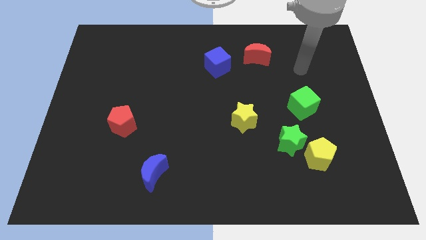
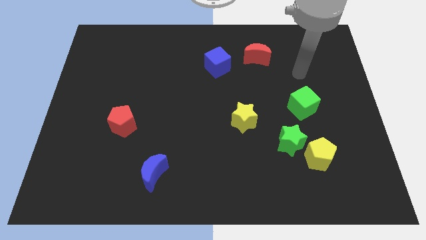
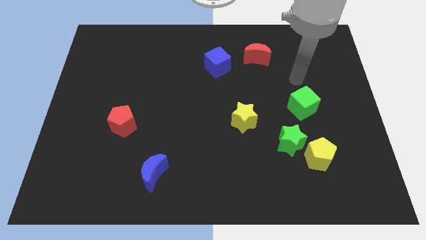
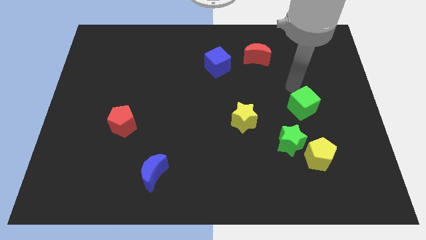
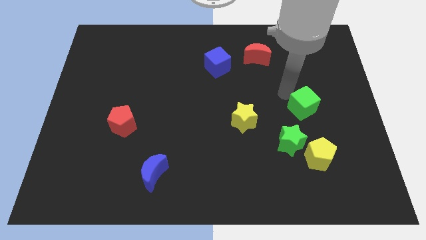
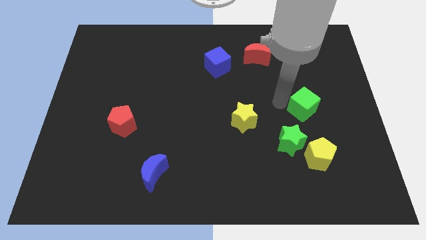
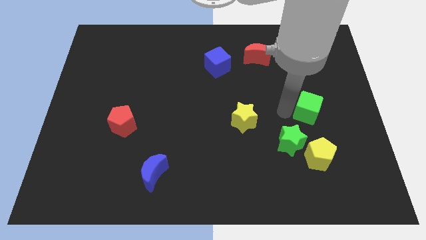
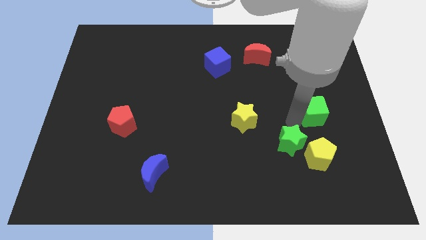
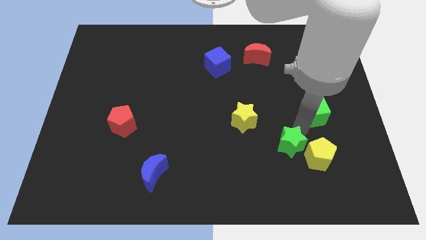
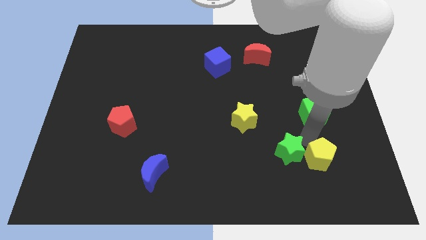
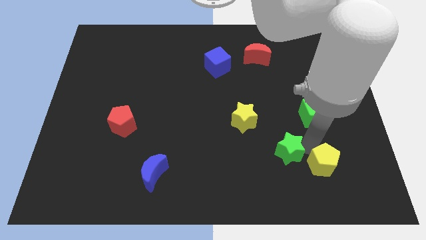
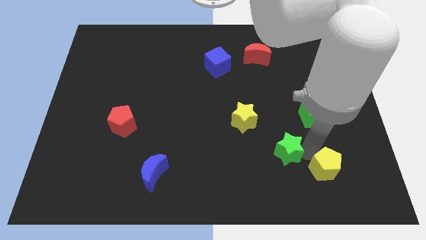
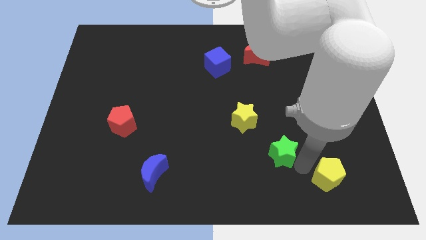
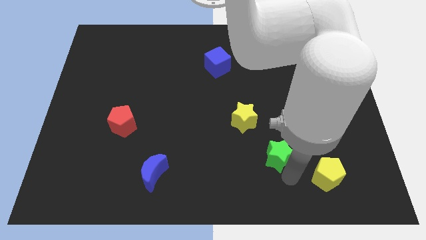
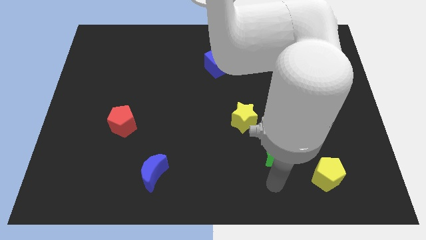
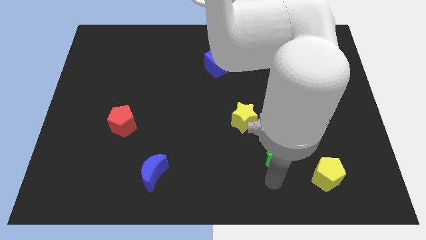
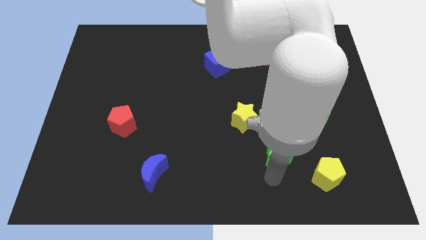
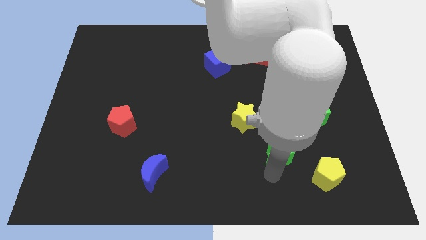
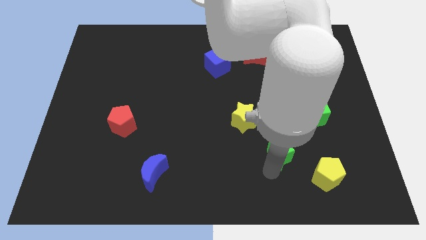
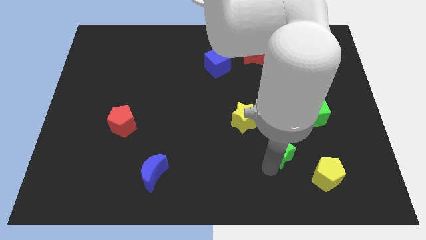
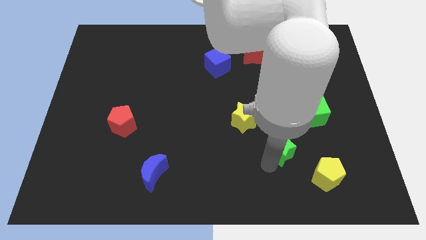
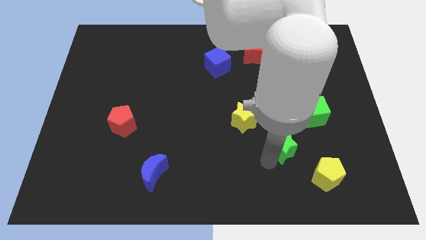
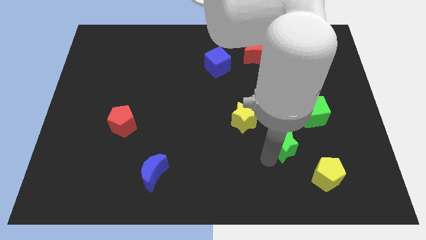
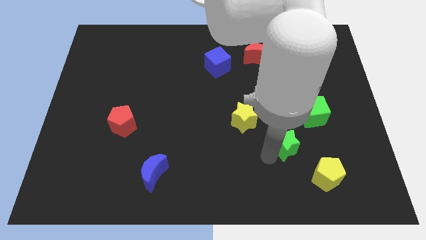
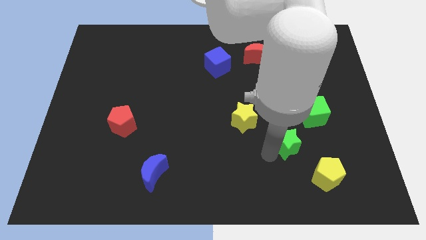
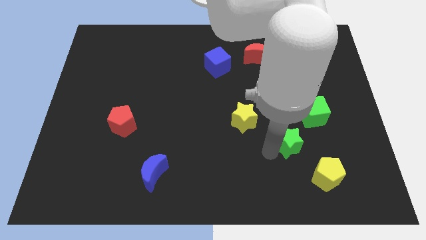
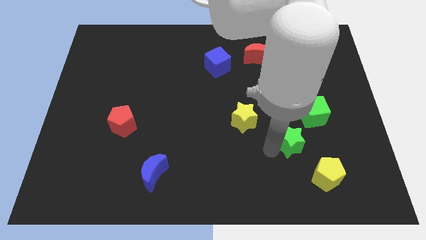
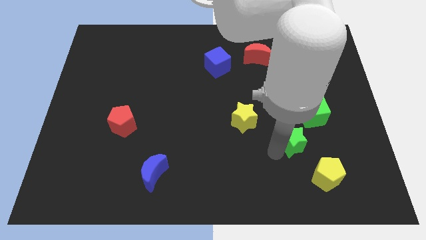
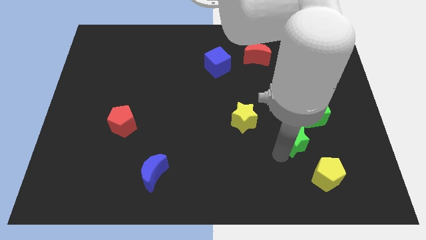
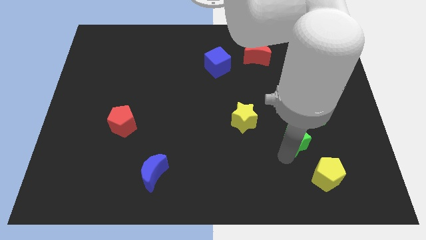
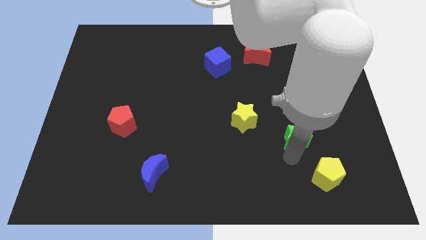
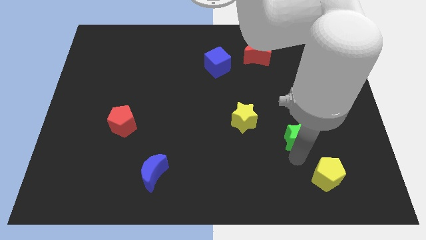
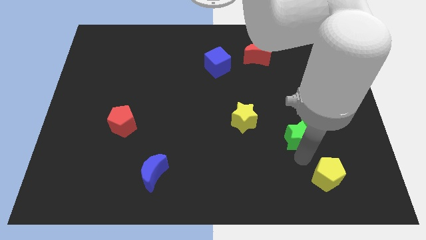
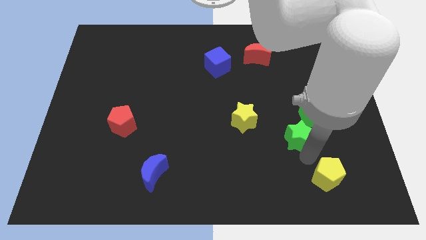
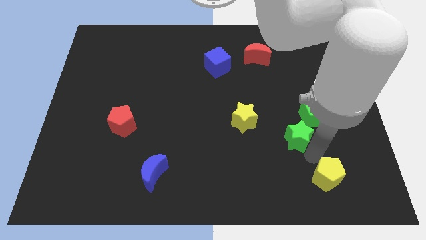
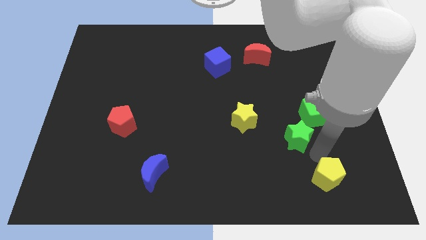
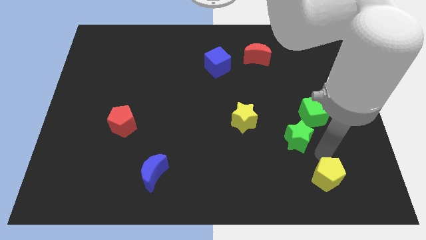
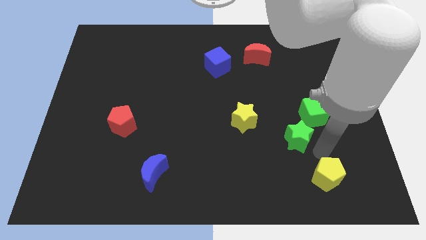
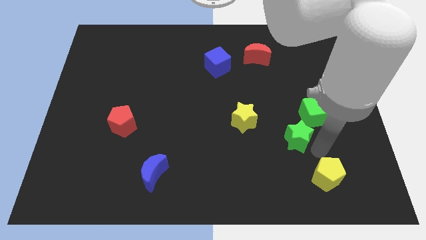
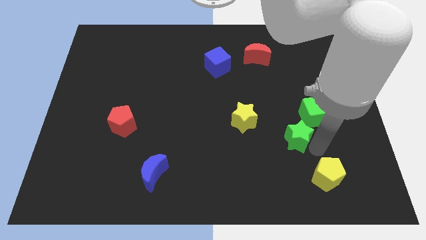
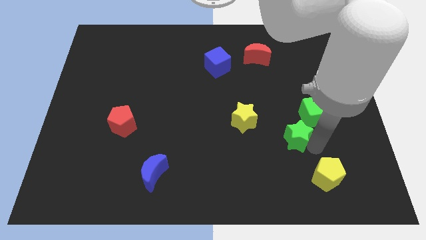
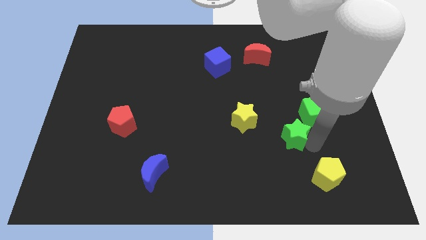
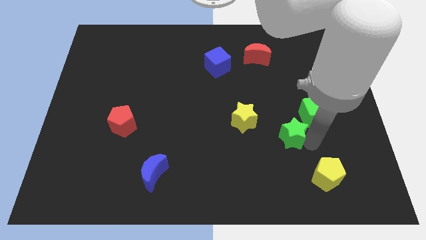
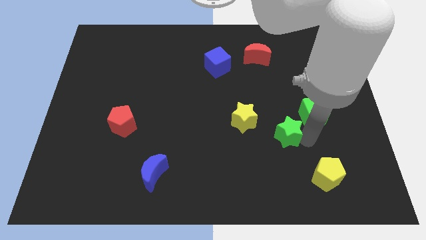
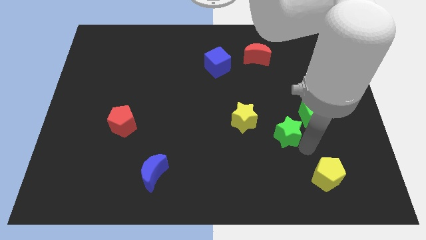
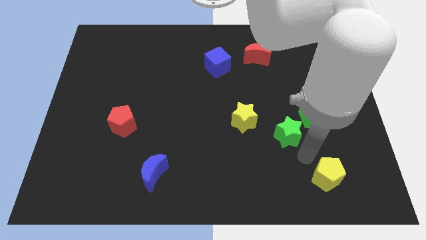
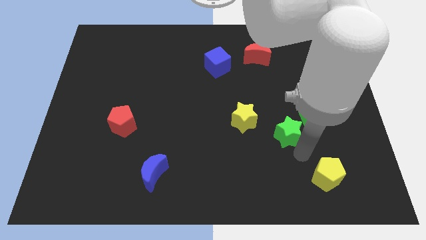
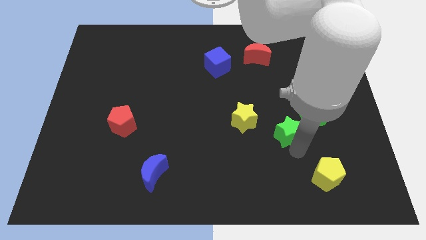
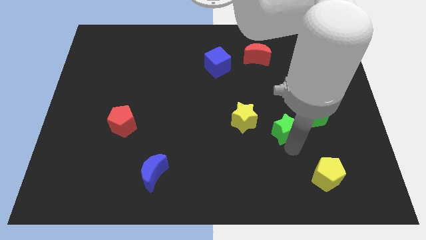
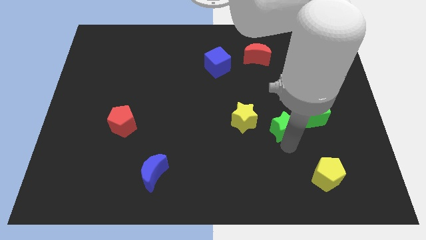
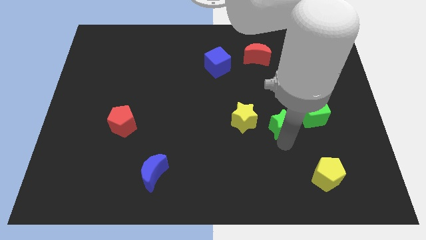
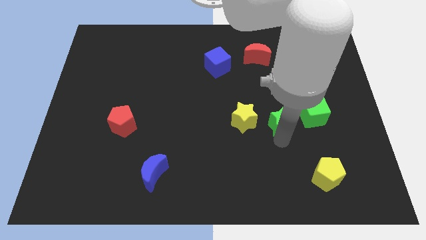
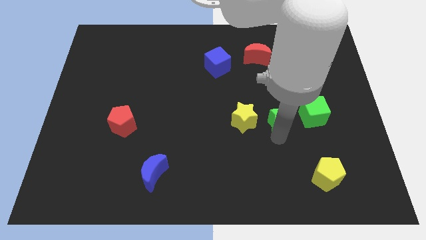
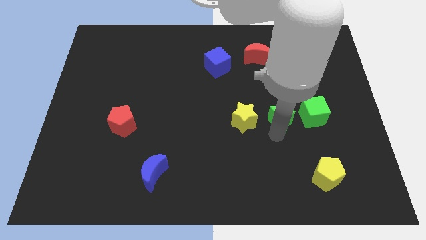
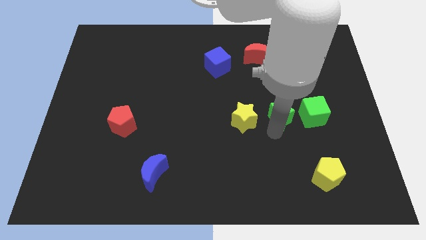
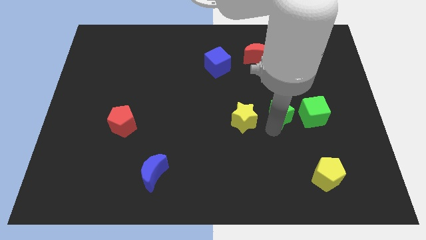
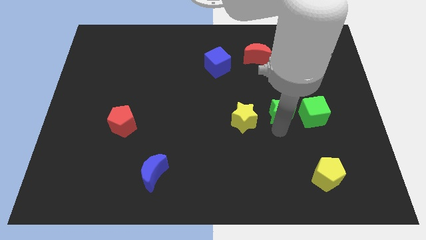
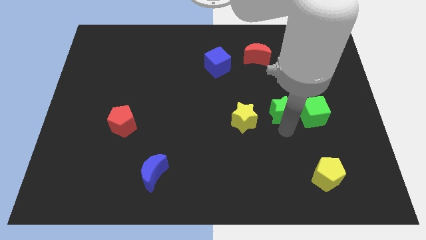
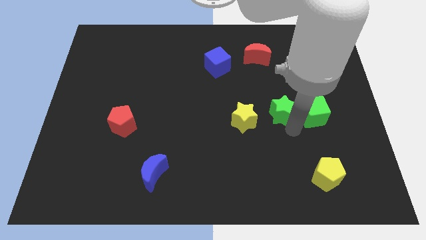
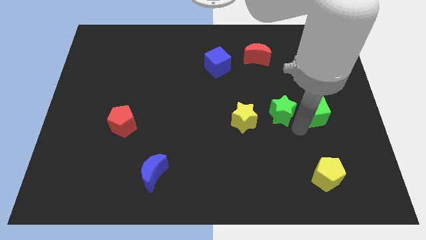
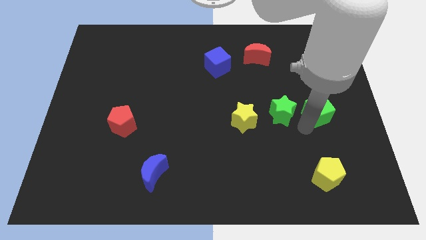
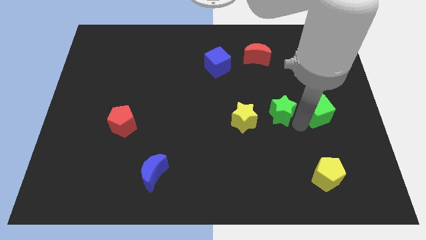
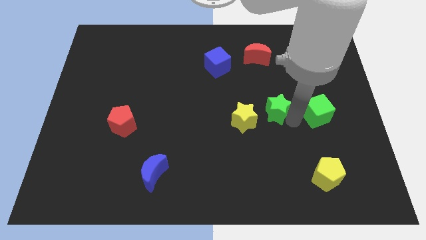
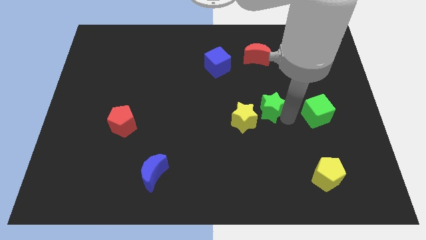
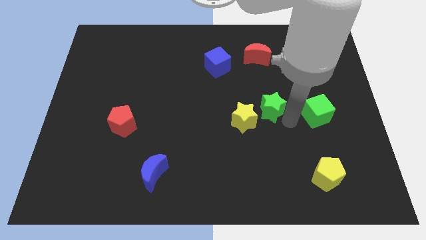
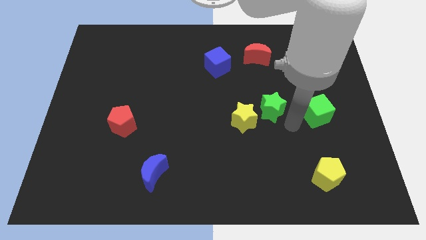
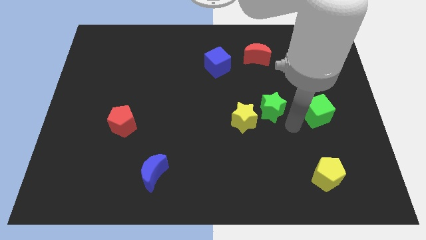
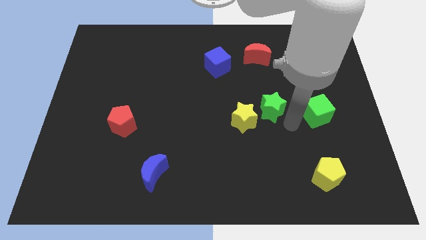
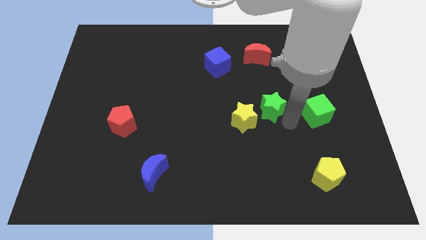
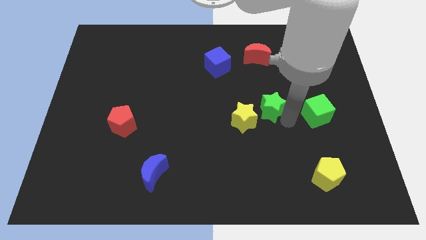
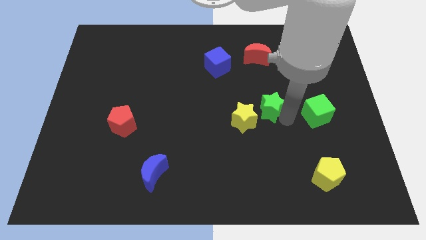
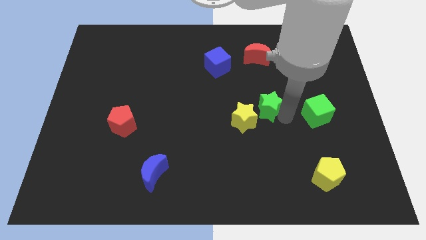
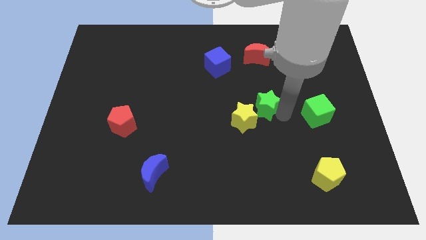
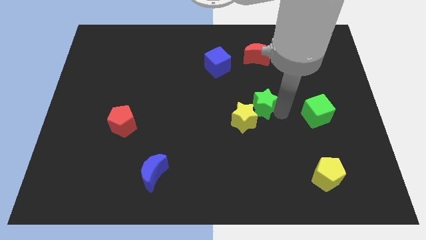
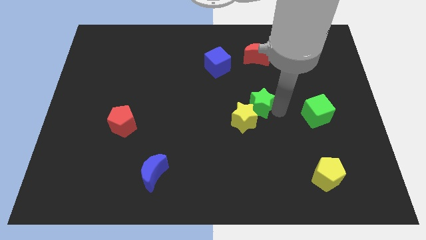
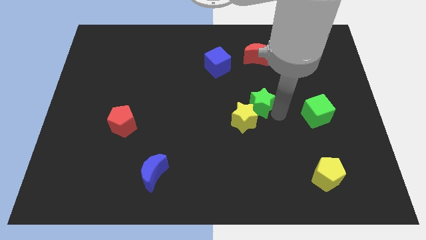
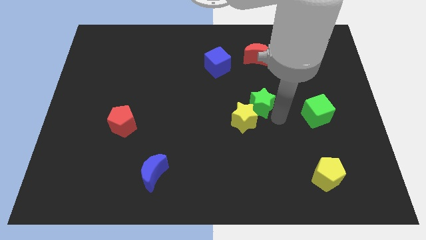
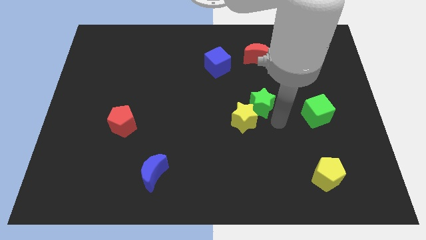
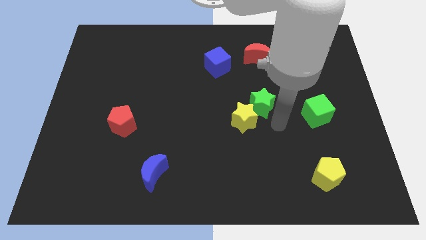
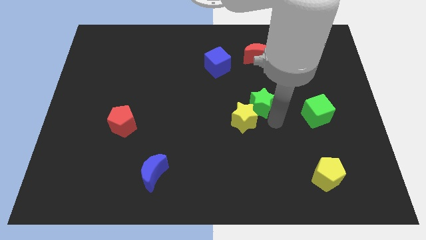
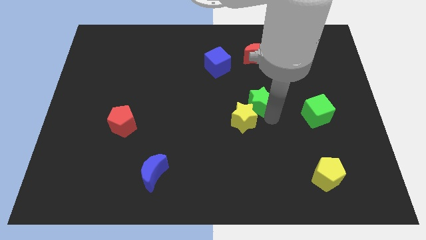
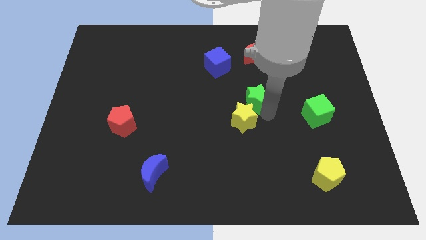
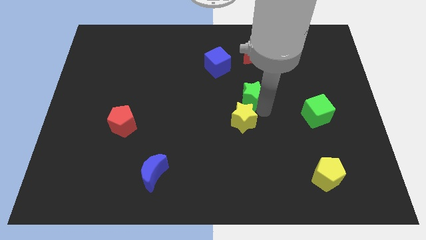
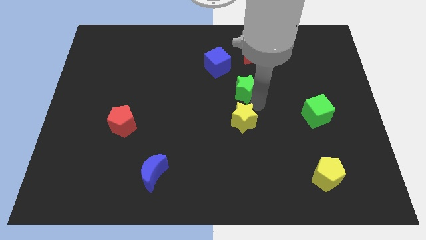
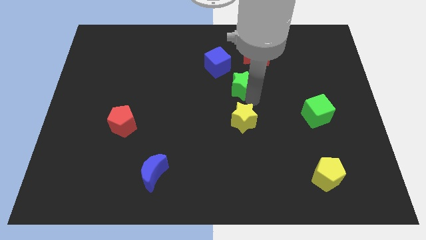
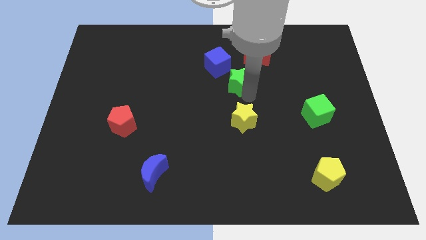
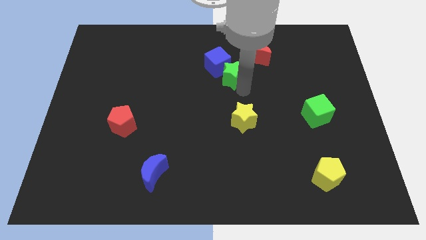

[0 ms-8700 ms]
move the green star close to the blue cube
